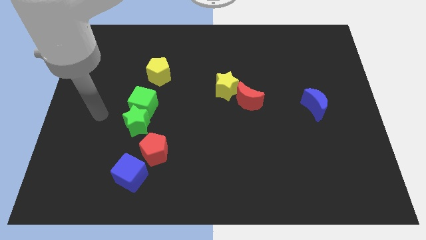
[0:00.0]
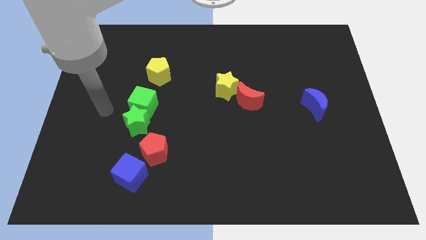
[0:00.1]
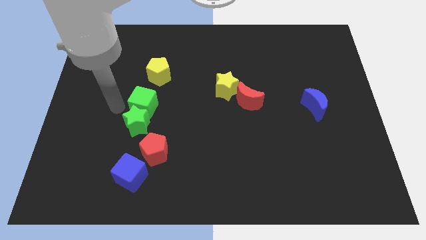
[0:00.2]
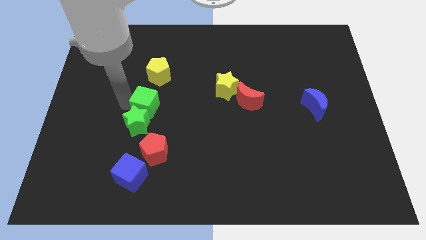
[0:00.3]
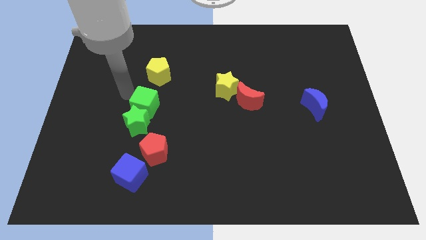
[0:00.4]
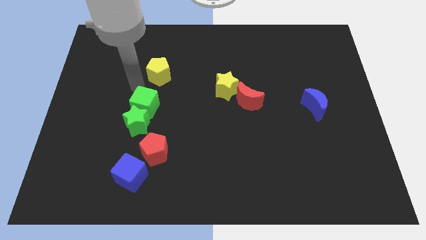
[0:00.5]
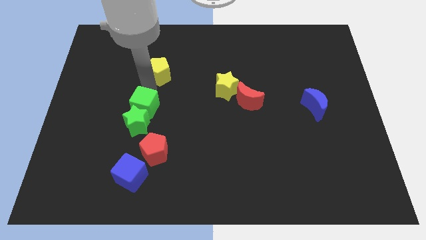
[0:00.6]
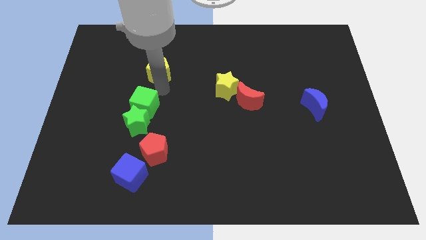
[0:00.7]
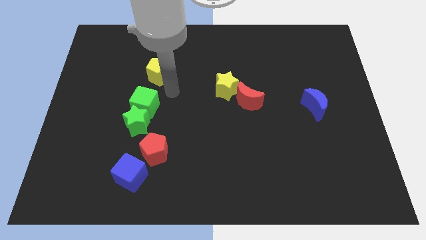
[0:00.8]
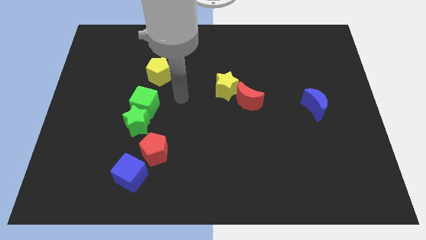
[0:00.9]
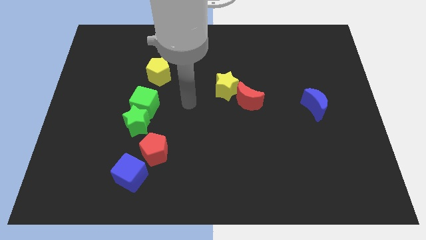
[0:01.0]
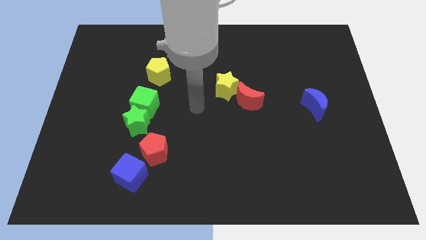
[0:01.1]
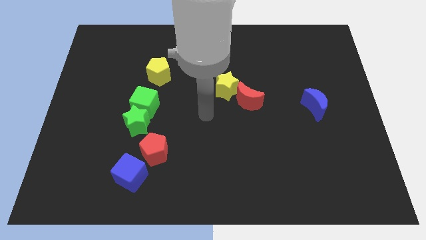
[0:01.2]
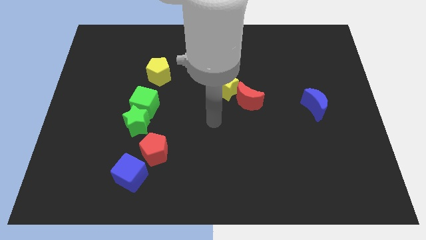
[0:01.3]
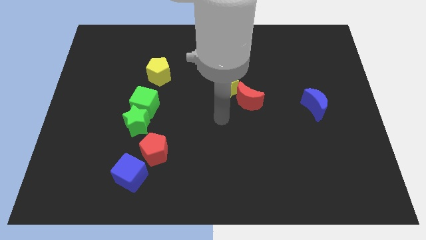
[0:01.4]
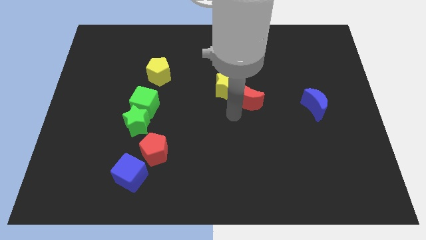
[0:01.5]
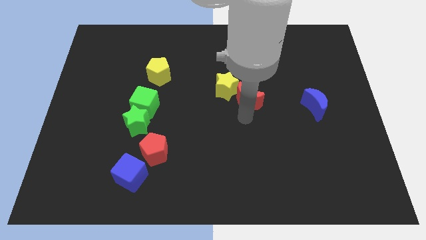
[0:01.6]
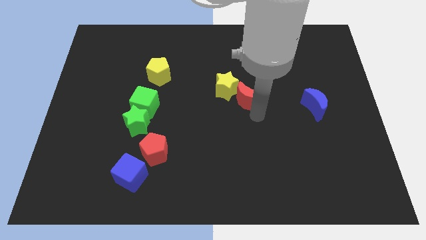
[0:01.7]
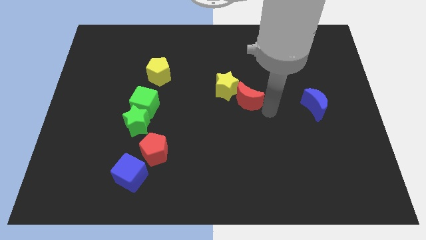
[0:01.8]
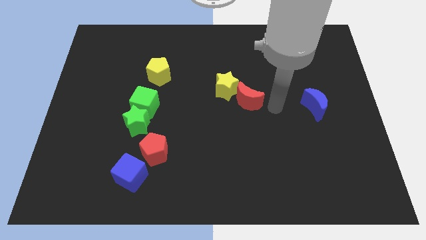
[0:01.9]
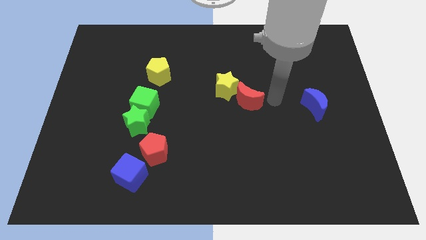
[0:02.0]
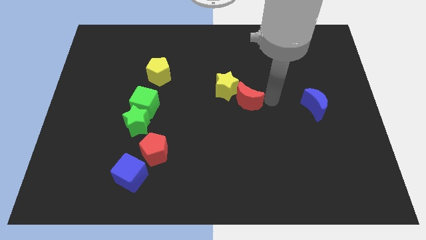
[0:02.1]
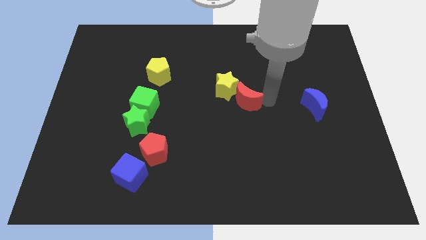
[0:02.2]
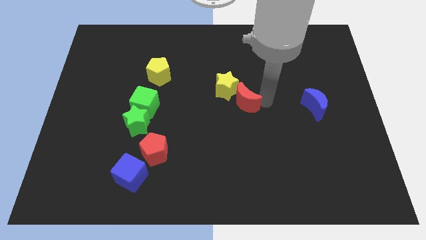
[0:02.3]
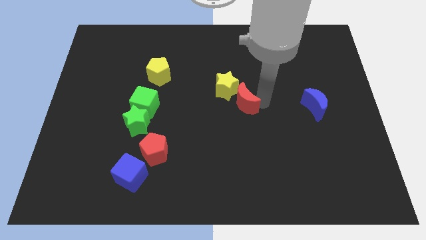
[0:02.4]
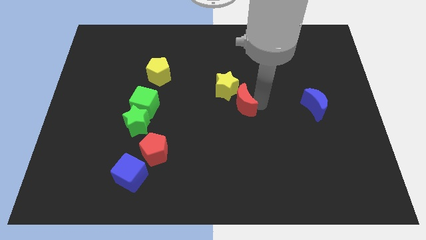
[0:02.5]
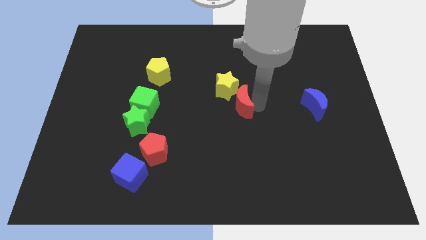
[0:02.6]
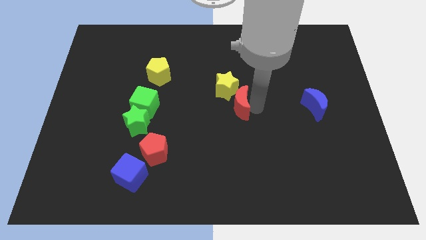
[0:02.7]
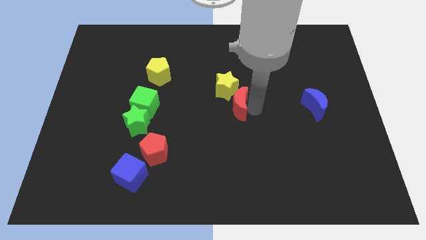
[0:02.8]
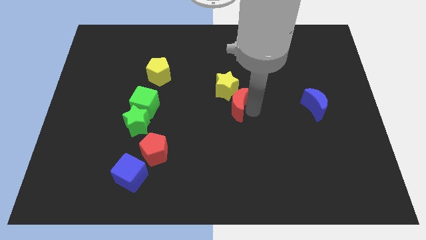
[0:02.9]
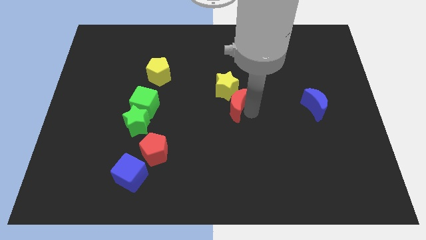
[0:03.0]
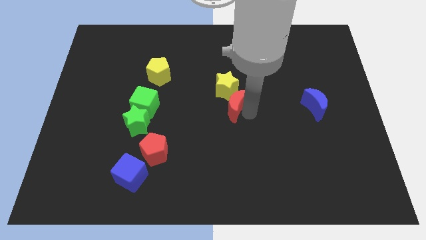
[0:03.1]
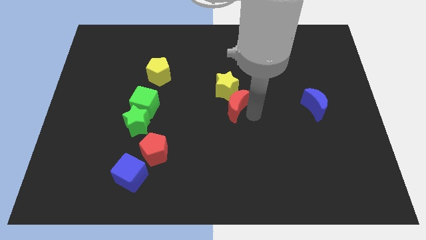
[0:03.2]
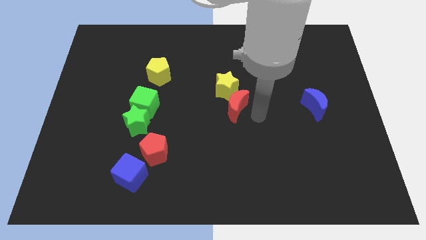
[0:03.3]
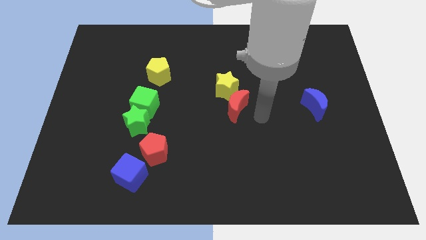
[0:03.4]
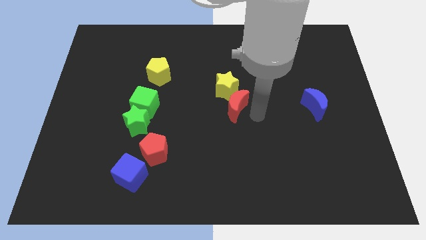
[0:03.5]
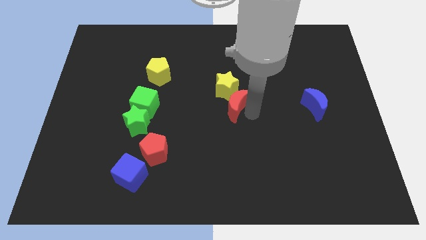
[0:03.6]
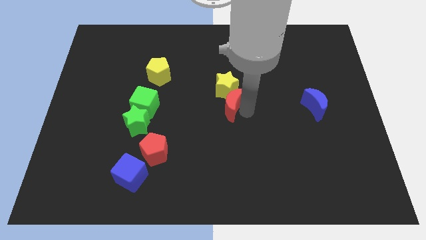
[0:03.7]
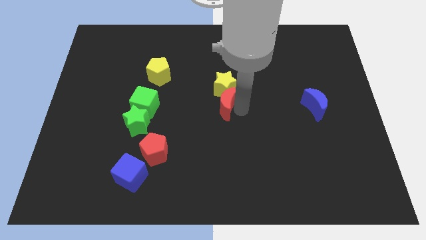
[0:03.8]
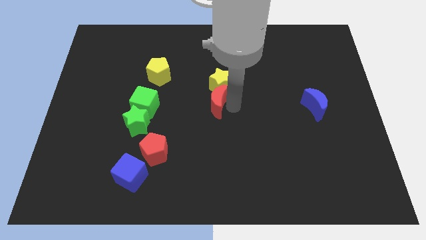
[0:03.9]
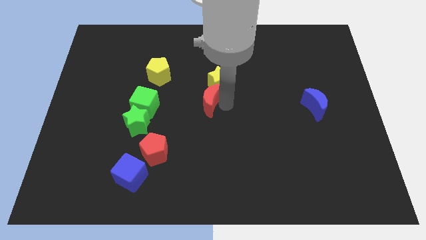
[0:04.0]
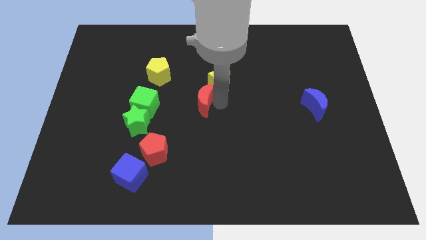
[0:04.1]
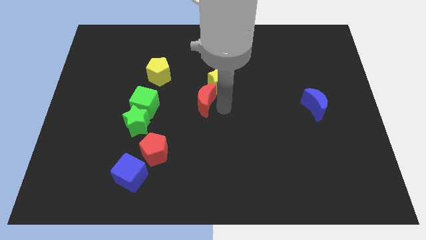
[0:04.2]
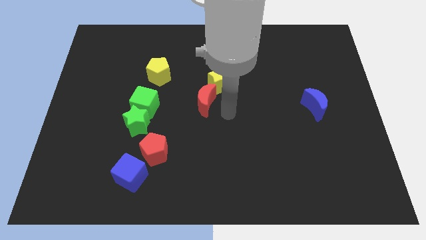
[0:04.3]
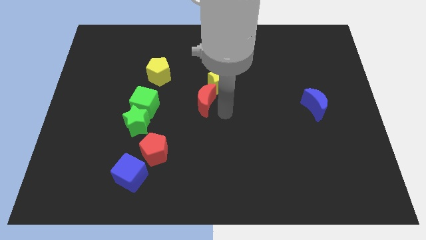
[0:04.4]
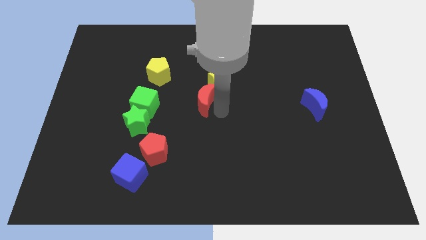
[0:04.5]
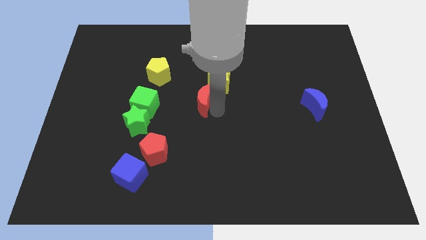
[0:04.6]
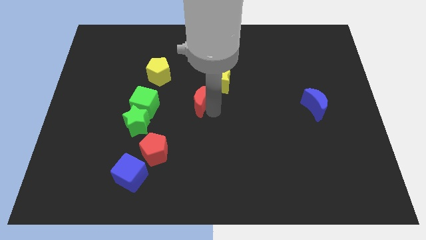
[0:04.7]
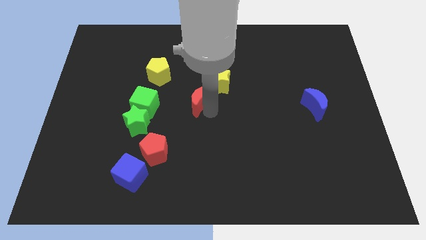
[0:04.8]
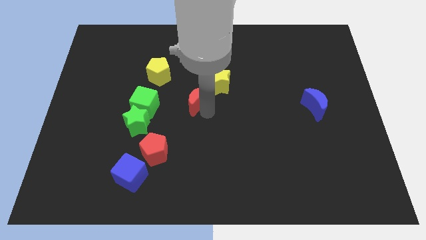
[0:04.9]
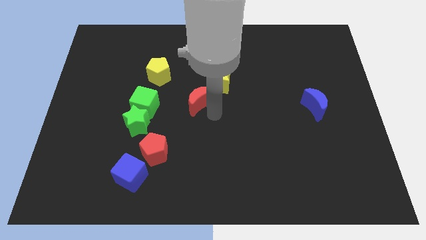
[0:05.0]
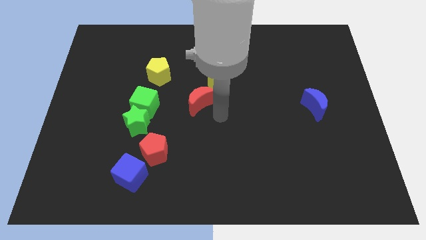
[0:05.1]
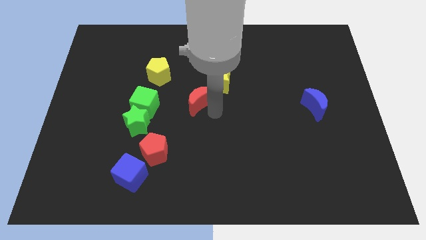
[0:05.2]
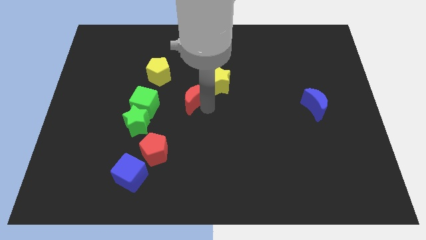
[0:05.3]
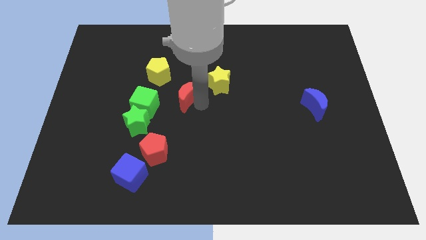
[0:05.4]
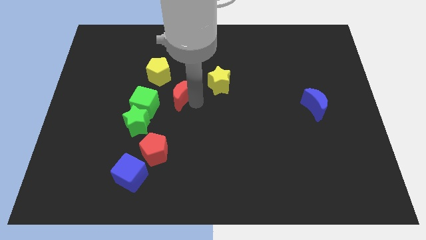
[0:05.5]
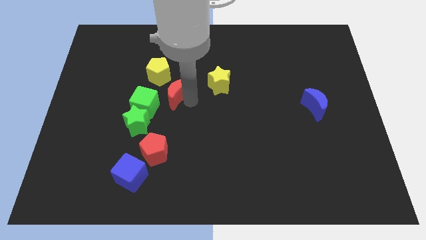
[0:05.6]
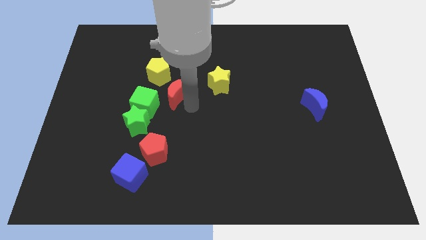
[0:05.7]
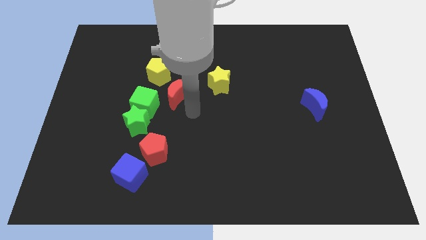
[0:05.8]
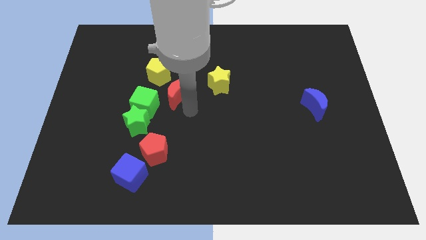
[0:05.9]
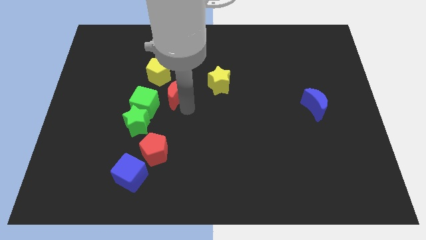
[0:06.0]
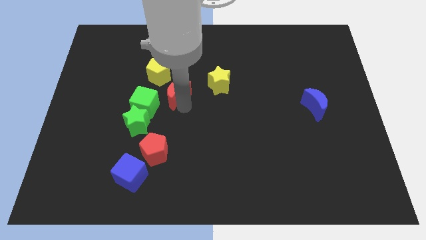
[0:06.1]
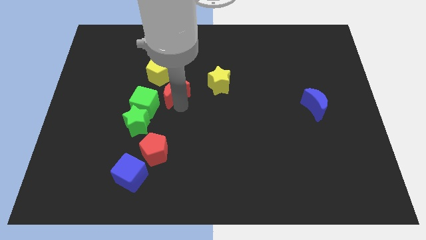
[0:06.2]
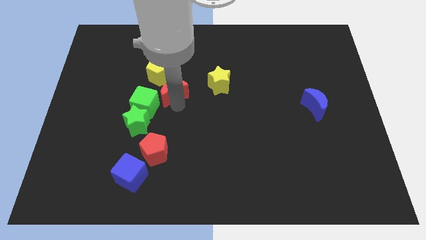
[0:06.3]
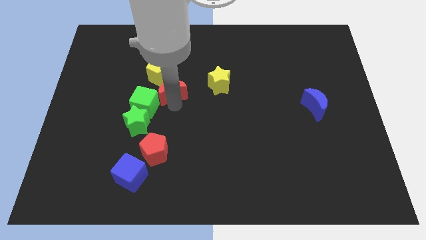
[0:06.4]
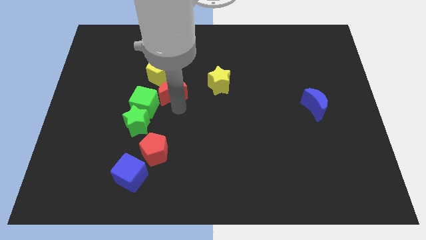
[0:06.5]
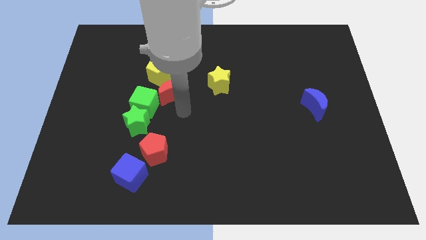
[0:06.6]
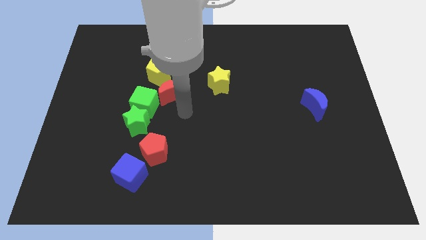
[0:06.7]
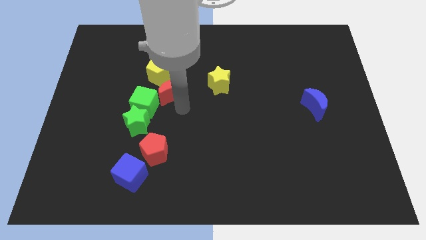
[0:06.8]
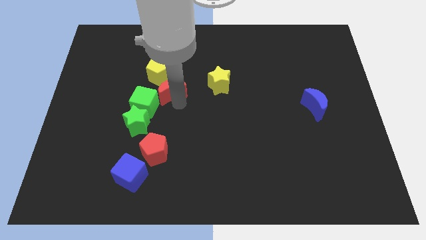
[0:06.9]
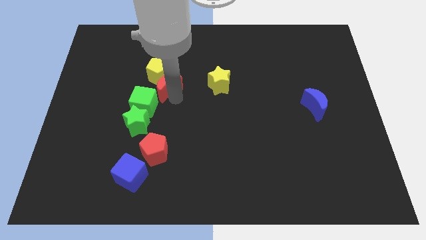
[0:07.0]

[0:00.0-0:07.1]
slide the red moon to the yellow pentagon

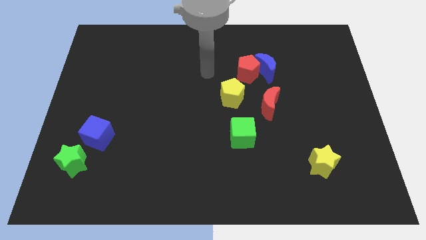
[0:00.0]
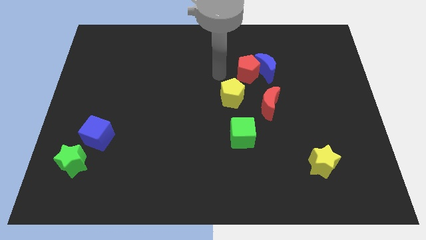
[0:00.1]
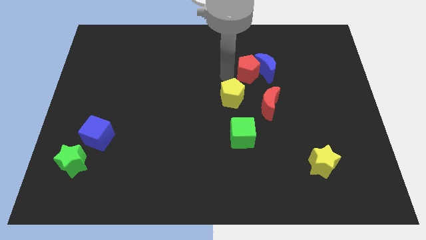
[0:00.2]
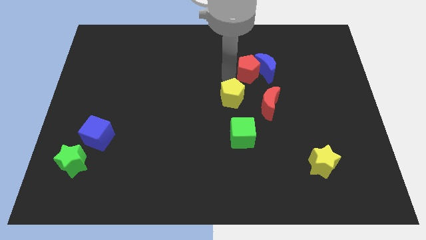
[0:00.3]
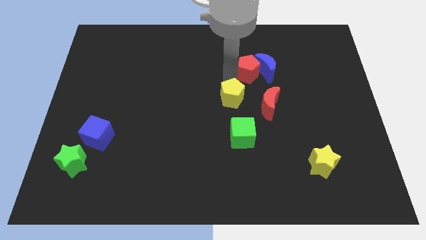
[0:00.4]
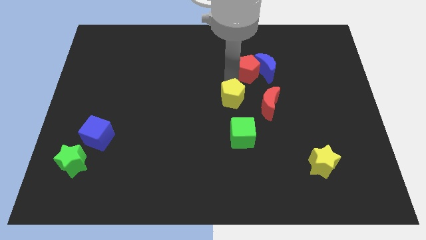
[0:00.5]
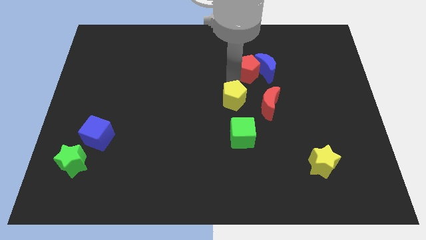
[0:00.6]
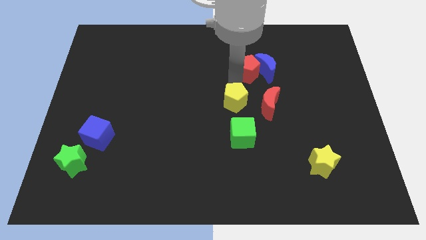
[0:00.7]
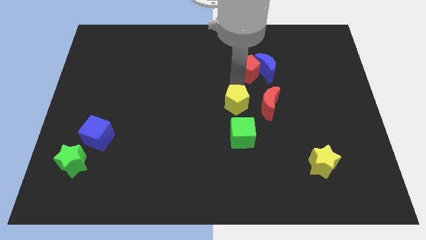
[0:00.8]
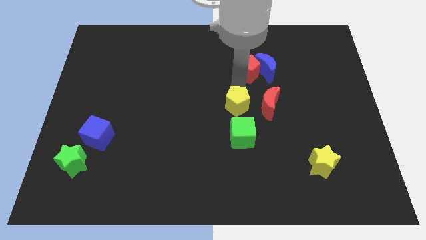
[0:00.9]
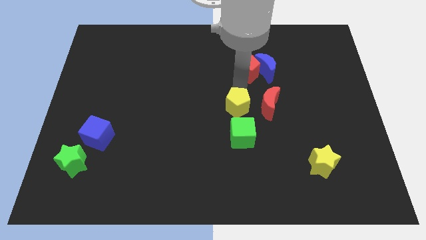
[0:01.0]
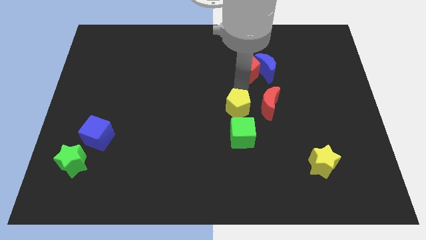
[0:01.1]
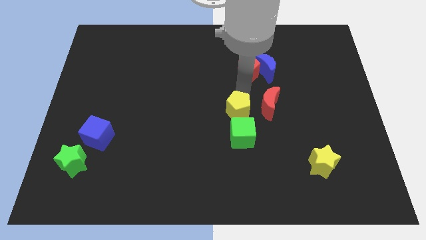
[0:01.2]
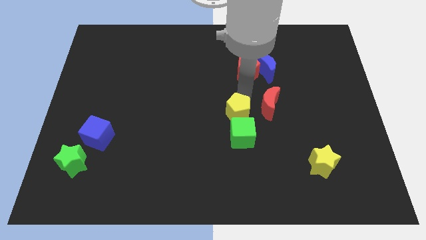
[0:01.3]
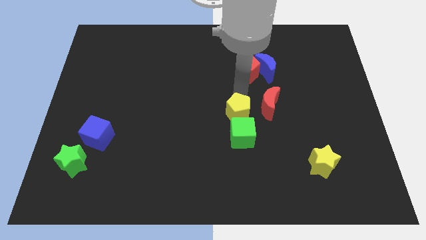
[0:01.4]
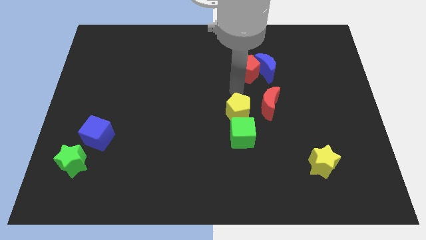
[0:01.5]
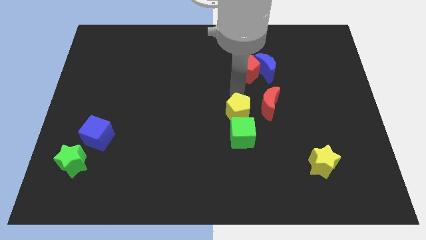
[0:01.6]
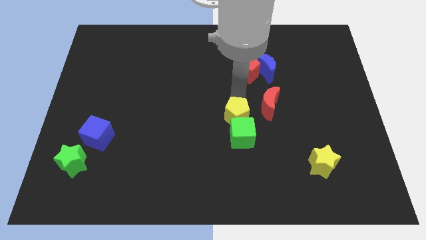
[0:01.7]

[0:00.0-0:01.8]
push the yellow pentagon towards the green cube
